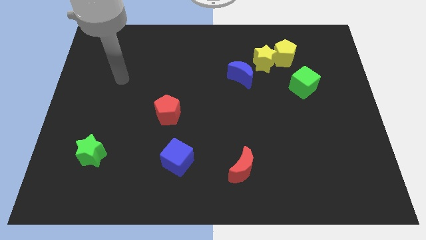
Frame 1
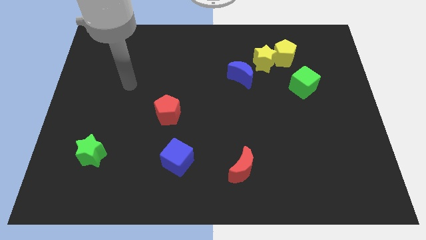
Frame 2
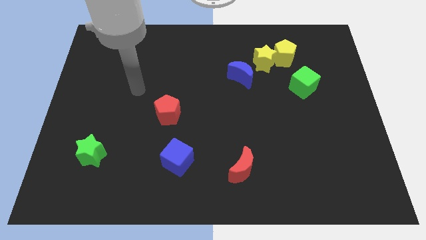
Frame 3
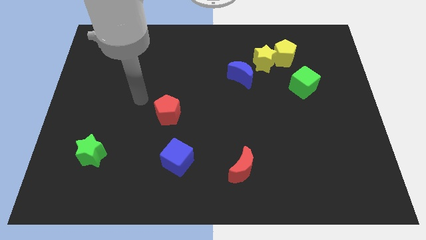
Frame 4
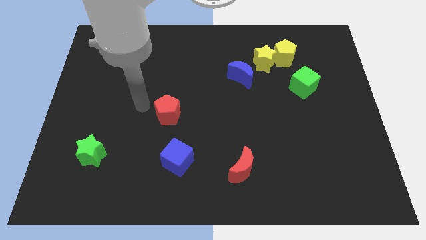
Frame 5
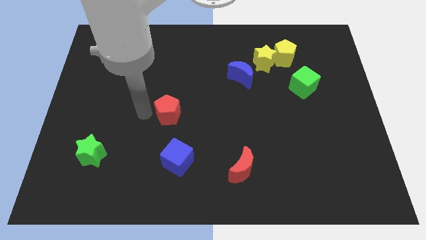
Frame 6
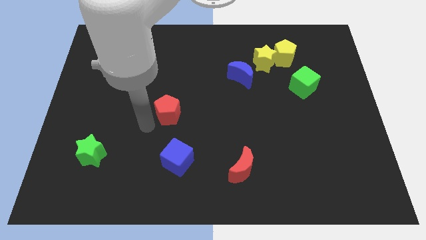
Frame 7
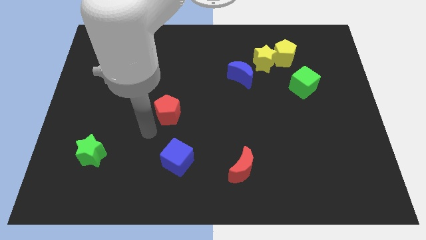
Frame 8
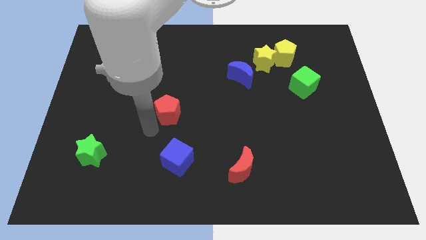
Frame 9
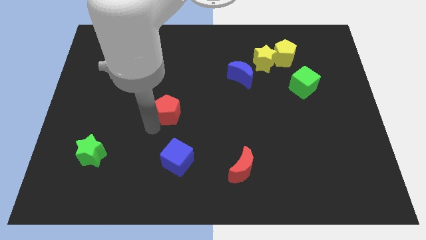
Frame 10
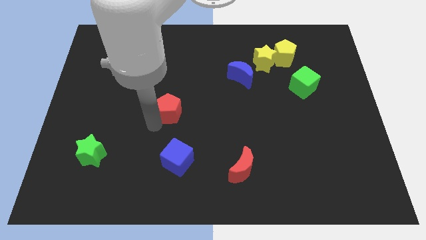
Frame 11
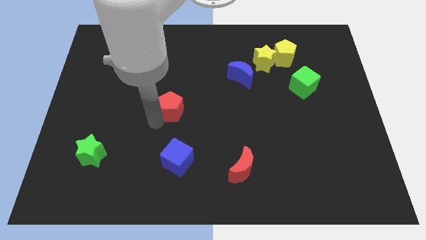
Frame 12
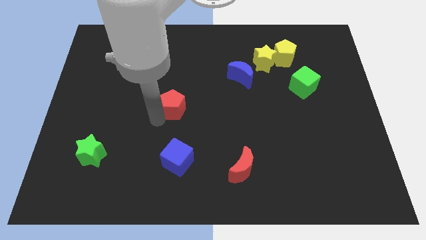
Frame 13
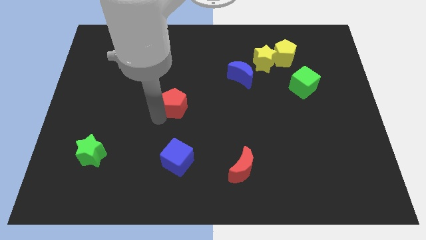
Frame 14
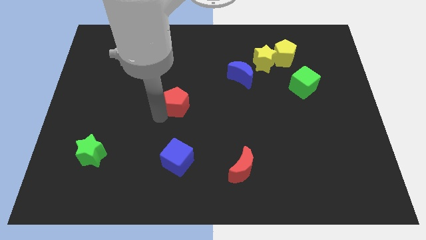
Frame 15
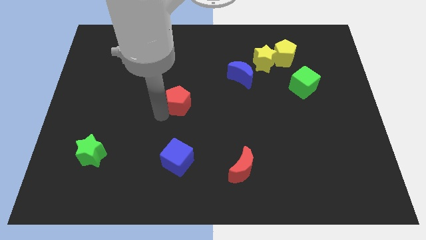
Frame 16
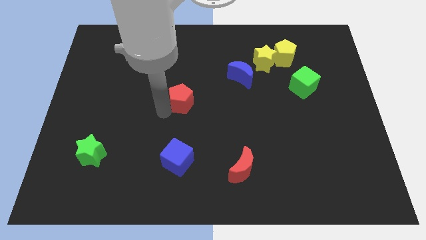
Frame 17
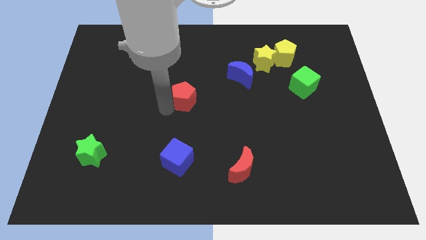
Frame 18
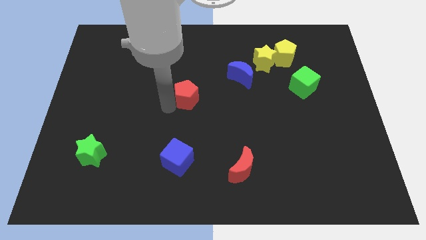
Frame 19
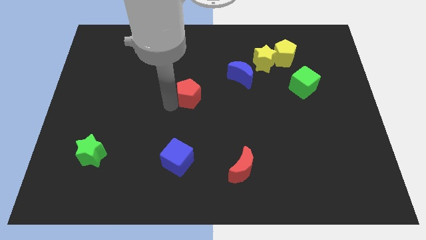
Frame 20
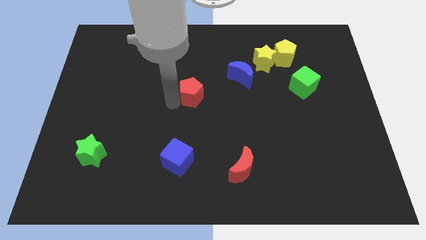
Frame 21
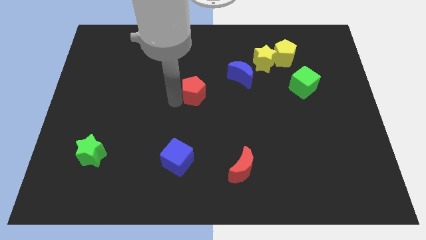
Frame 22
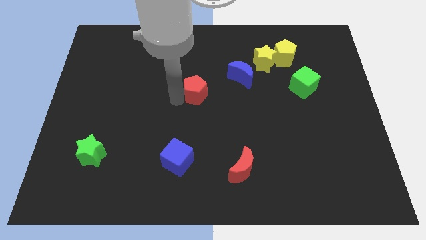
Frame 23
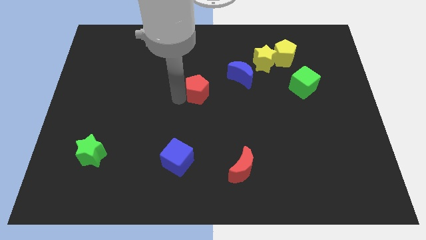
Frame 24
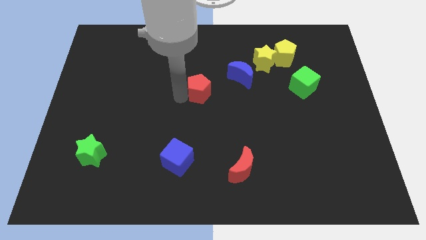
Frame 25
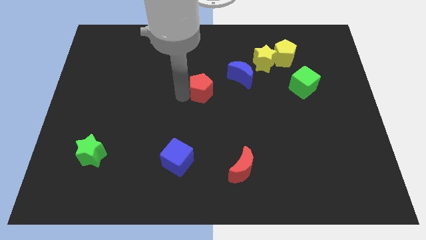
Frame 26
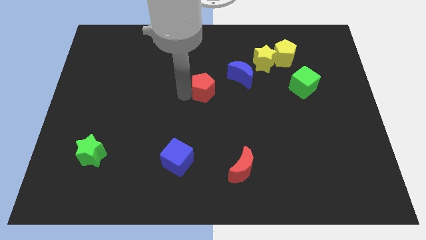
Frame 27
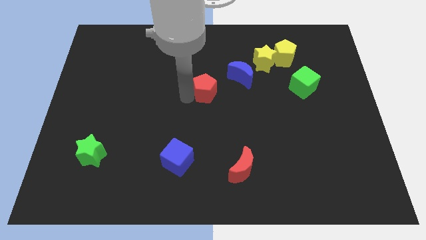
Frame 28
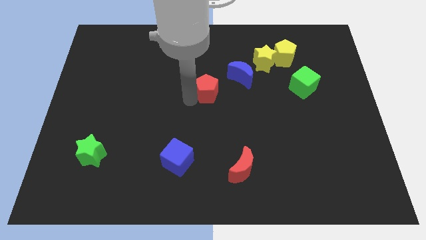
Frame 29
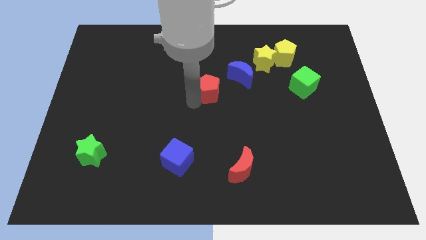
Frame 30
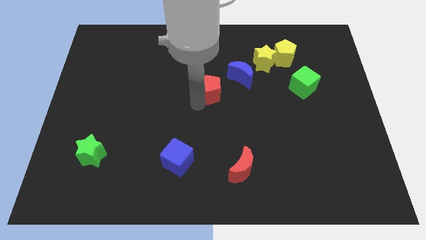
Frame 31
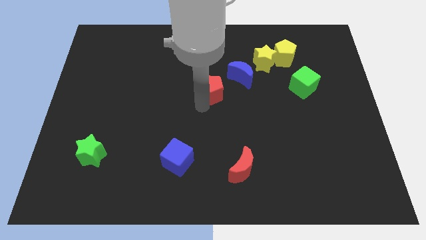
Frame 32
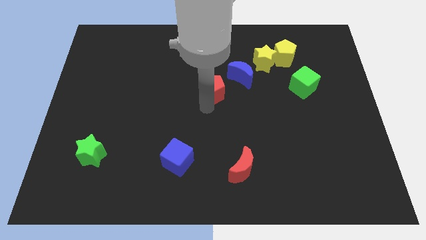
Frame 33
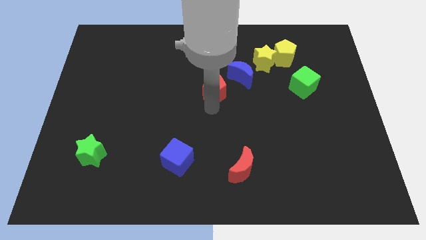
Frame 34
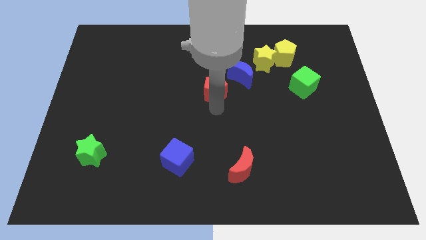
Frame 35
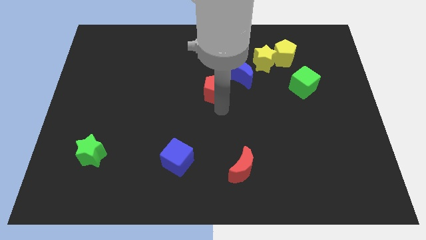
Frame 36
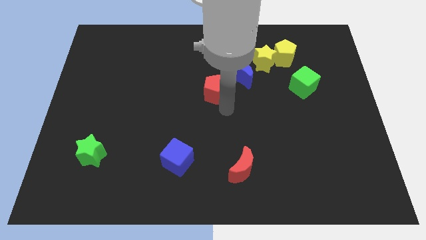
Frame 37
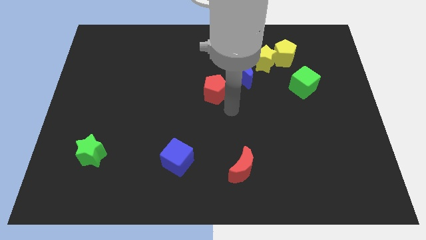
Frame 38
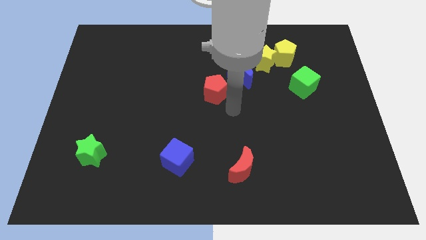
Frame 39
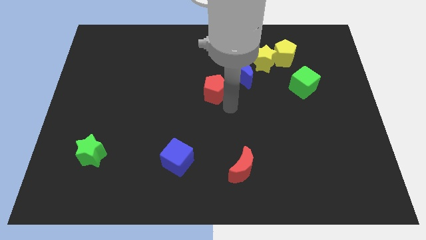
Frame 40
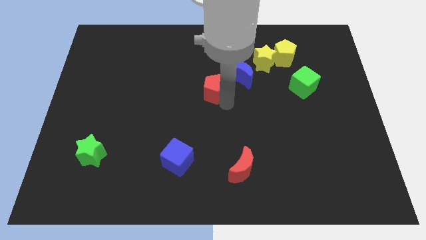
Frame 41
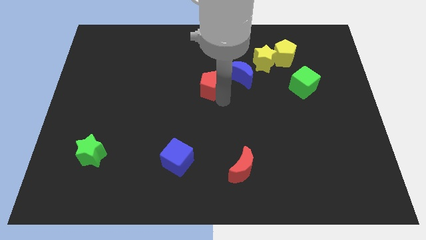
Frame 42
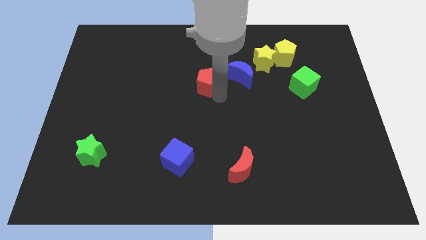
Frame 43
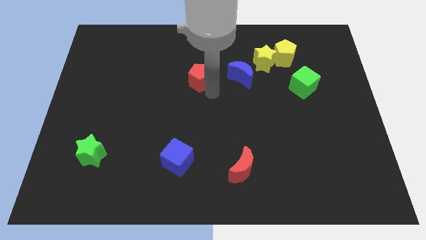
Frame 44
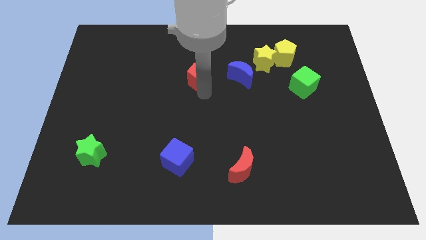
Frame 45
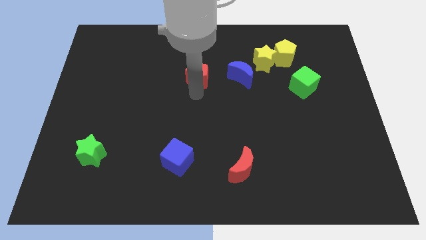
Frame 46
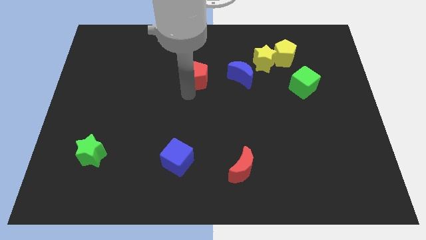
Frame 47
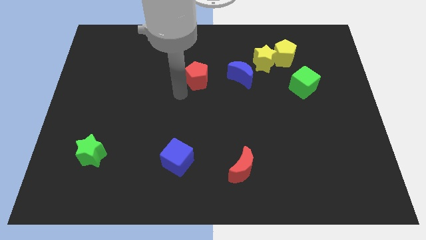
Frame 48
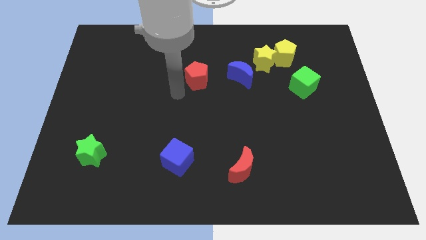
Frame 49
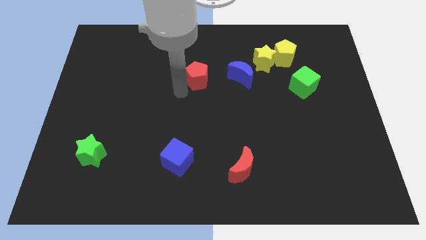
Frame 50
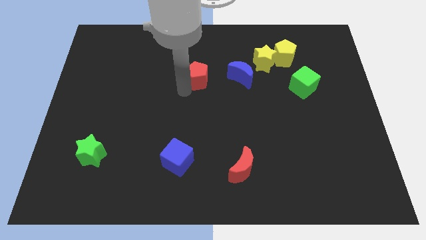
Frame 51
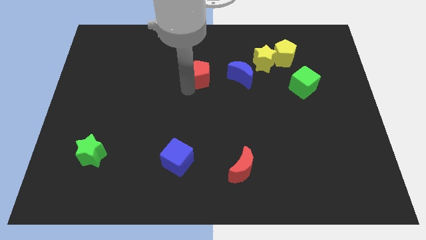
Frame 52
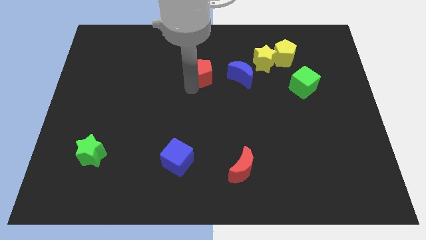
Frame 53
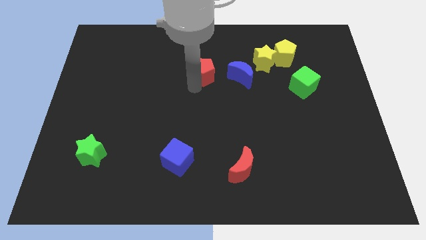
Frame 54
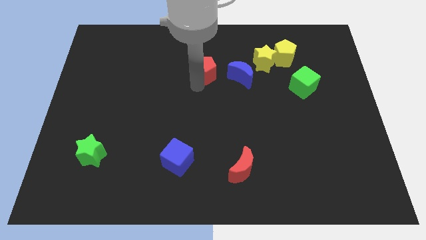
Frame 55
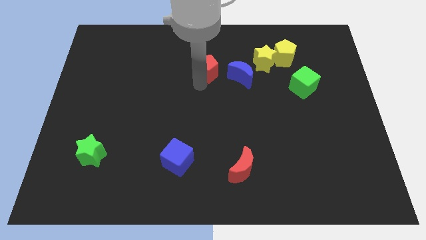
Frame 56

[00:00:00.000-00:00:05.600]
put the red pentagon to the left of the yellow star

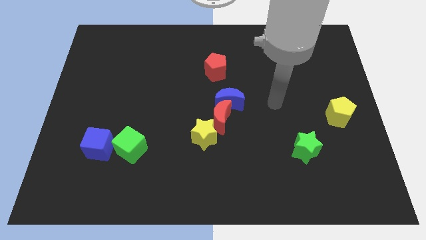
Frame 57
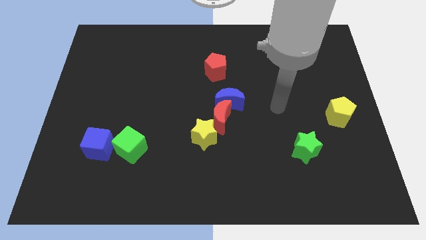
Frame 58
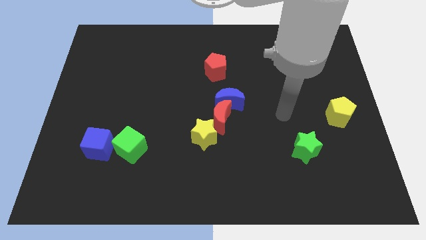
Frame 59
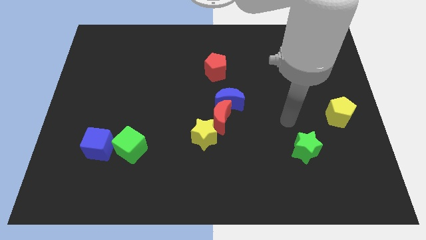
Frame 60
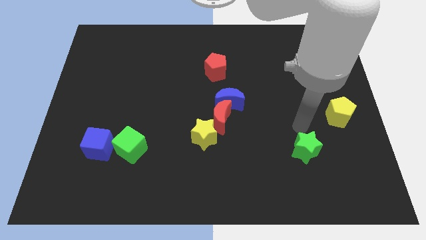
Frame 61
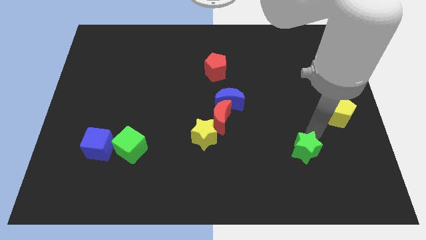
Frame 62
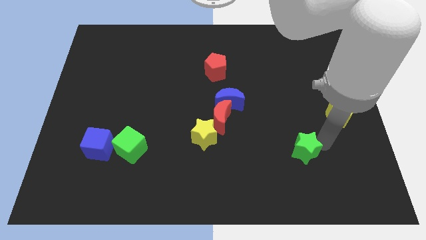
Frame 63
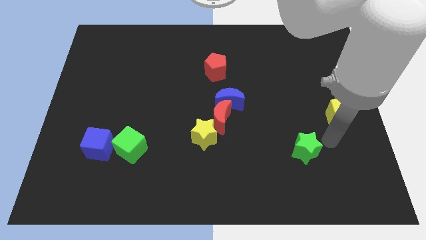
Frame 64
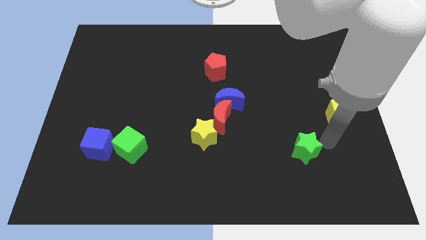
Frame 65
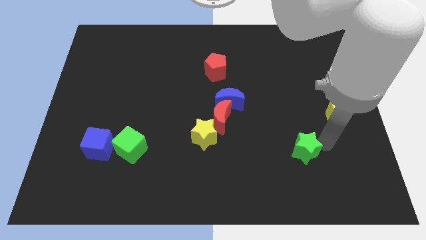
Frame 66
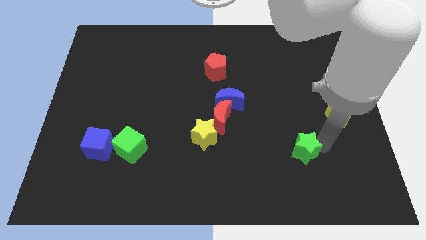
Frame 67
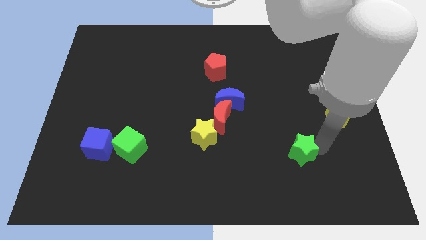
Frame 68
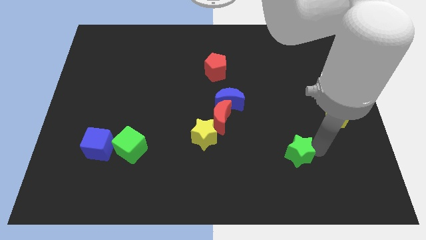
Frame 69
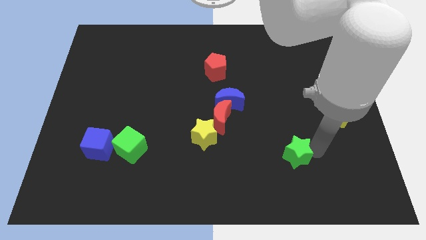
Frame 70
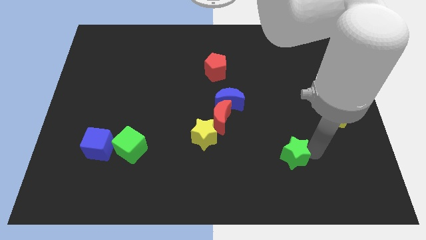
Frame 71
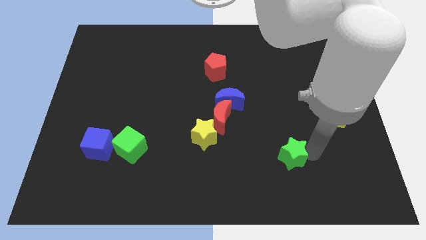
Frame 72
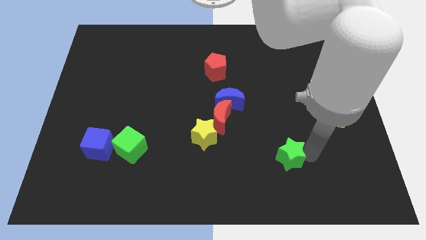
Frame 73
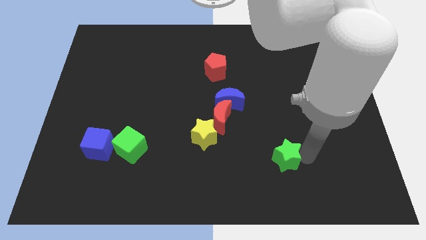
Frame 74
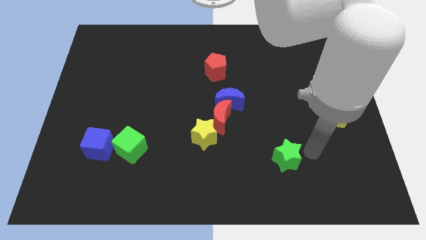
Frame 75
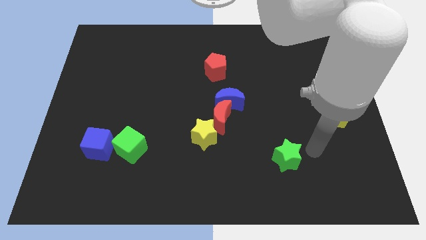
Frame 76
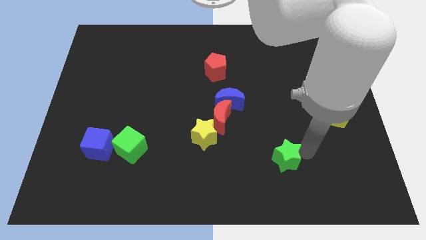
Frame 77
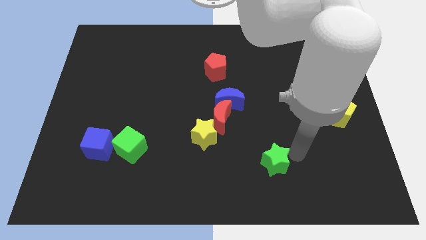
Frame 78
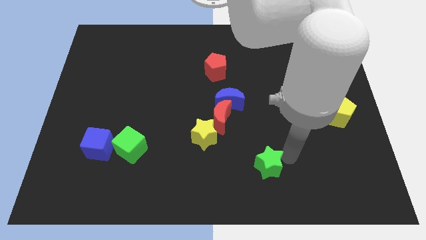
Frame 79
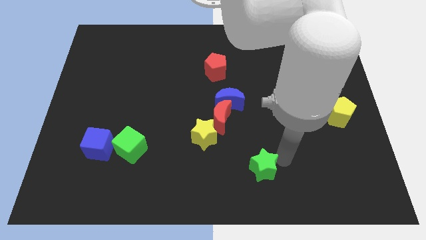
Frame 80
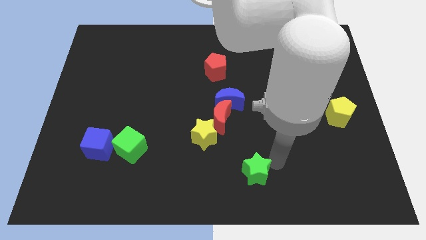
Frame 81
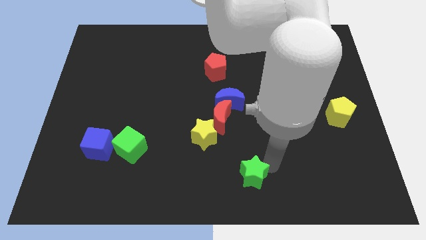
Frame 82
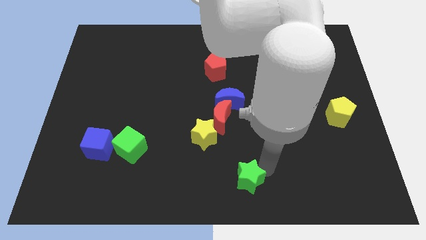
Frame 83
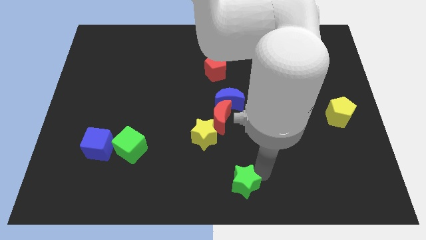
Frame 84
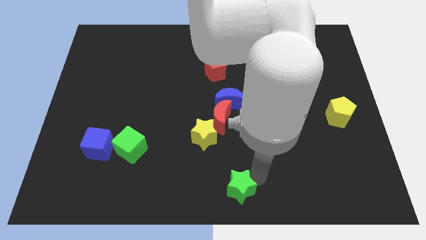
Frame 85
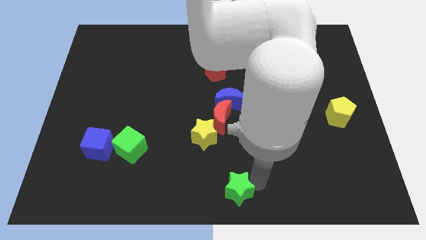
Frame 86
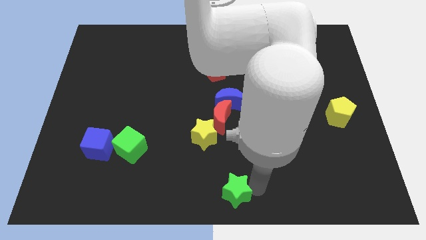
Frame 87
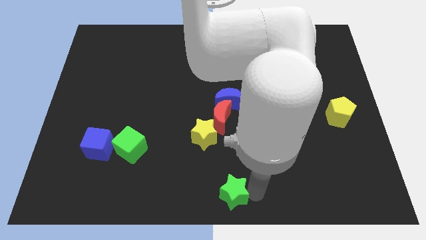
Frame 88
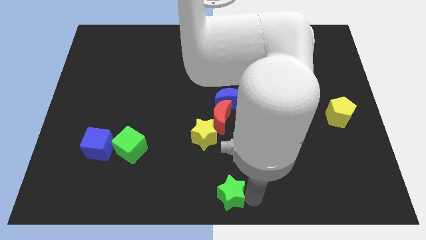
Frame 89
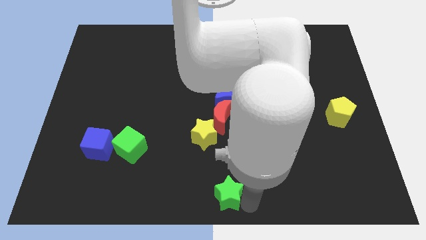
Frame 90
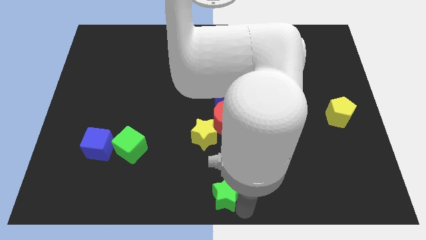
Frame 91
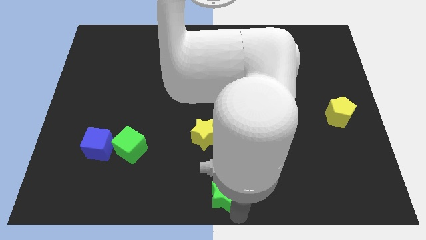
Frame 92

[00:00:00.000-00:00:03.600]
put the green star below the yellow star
